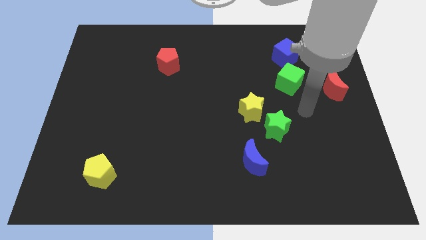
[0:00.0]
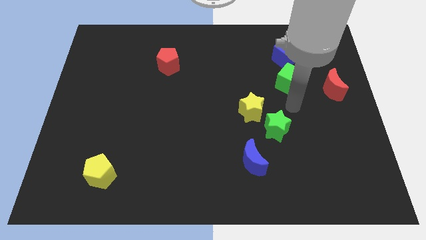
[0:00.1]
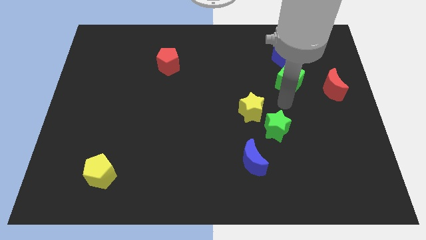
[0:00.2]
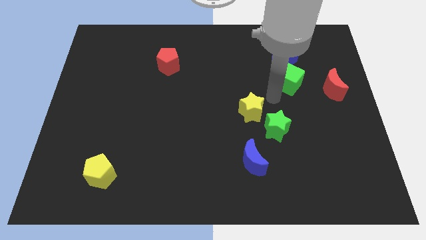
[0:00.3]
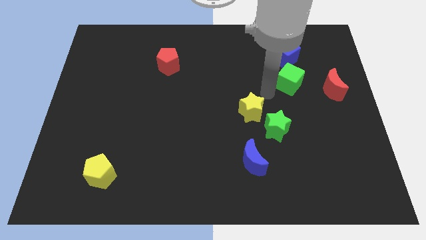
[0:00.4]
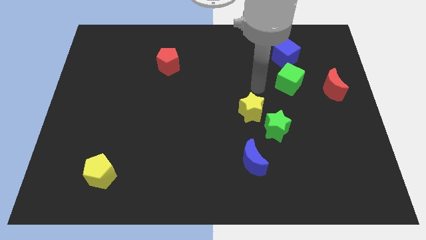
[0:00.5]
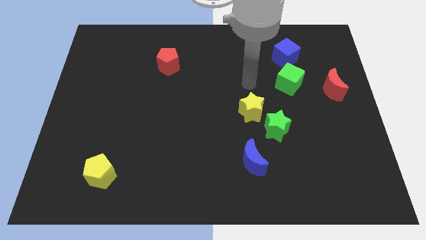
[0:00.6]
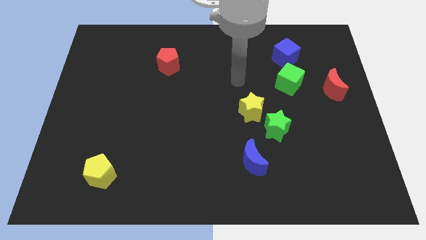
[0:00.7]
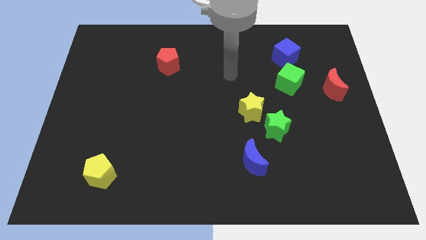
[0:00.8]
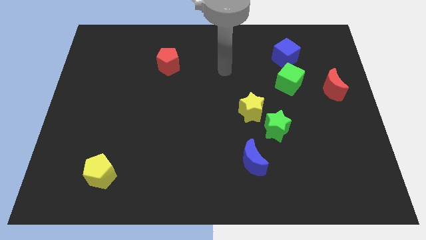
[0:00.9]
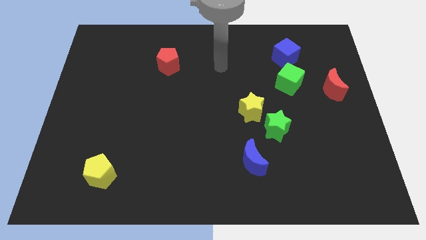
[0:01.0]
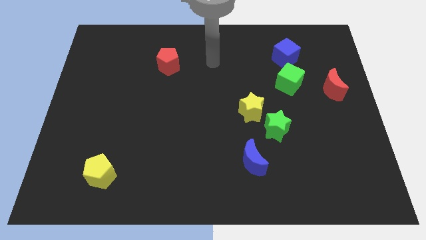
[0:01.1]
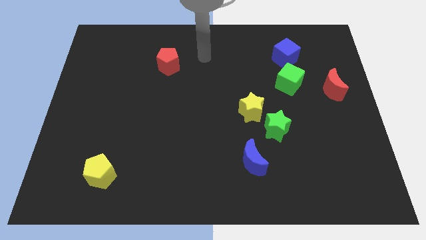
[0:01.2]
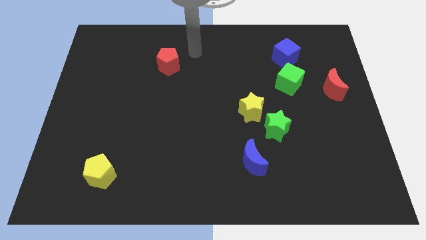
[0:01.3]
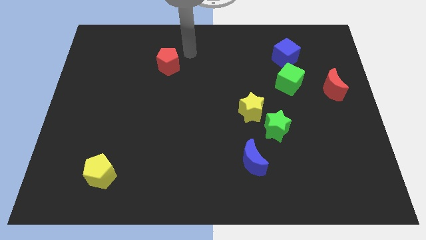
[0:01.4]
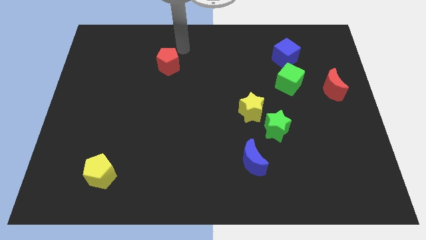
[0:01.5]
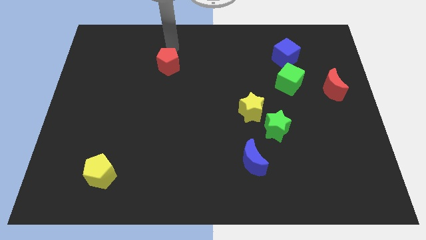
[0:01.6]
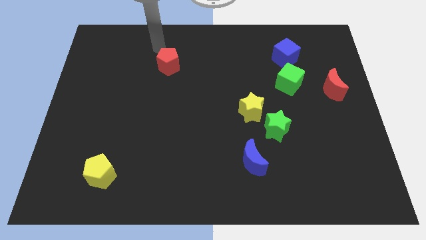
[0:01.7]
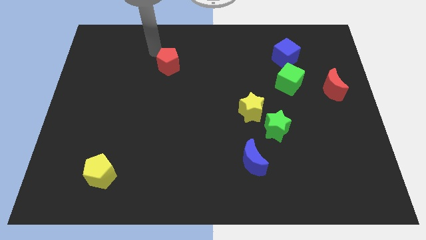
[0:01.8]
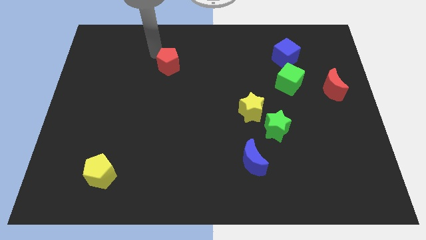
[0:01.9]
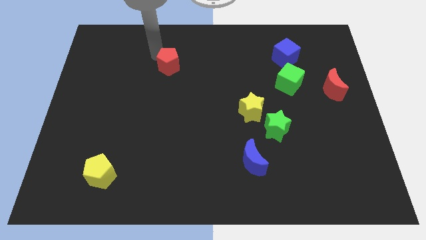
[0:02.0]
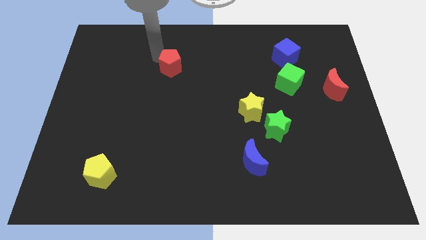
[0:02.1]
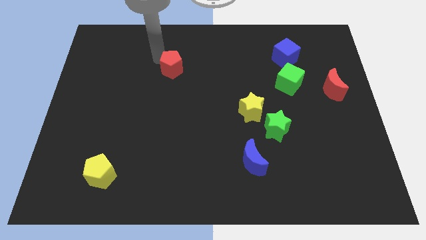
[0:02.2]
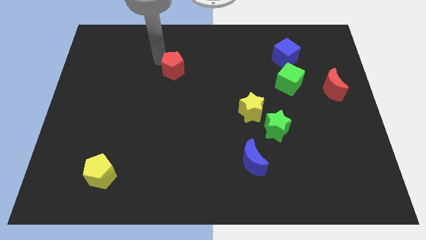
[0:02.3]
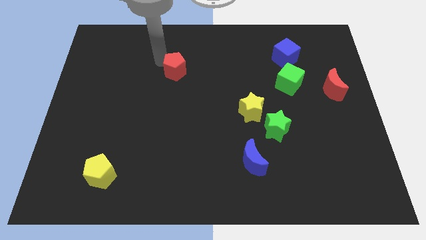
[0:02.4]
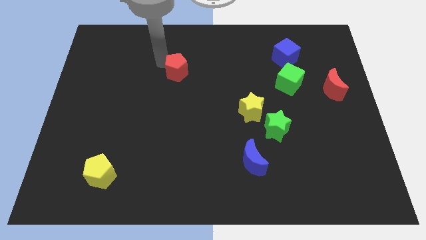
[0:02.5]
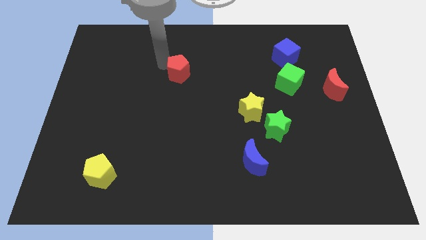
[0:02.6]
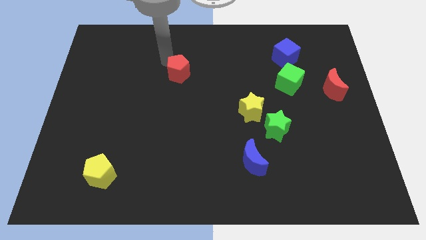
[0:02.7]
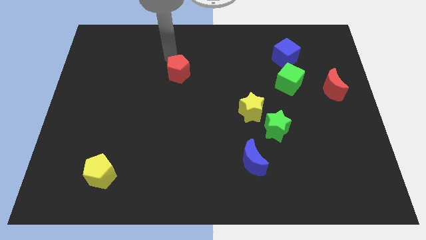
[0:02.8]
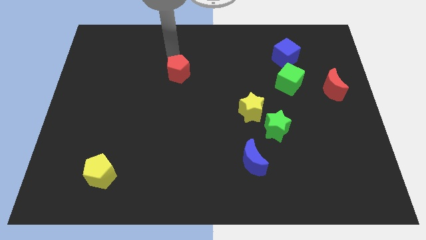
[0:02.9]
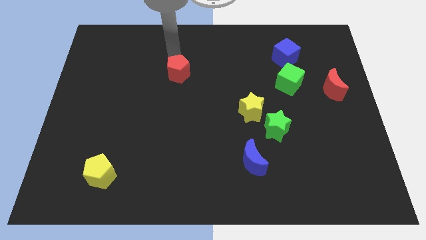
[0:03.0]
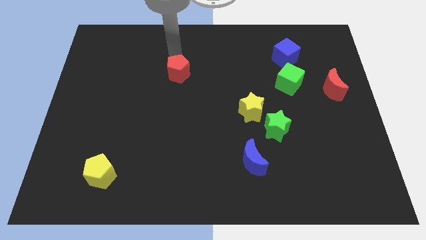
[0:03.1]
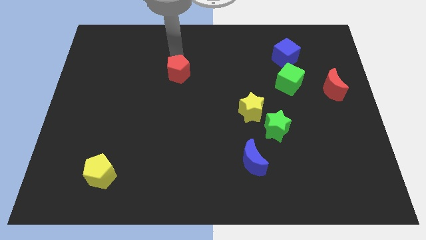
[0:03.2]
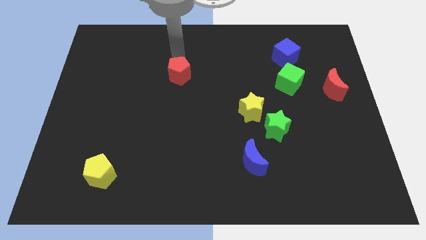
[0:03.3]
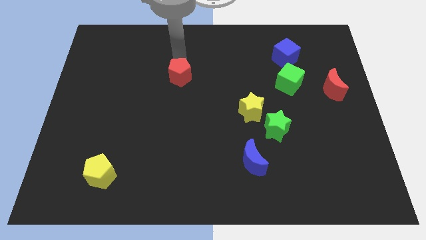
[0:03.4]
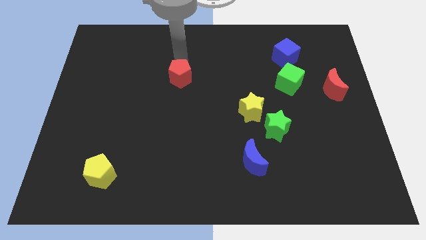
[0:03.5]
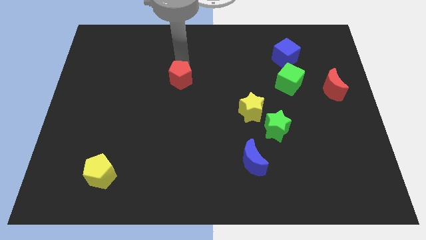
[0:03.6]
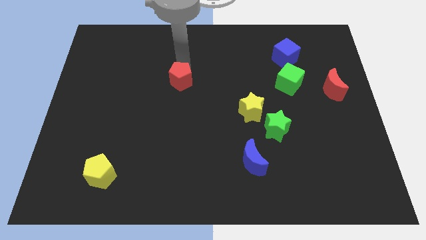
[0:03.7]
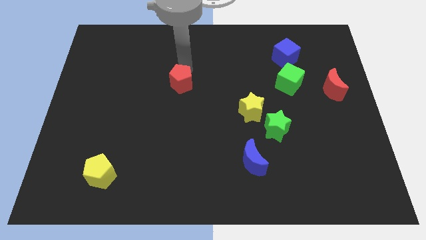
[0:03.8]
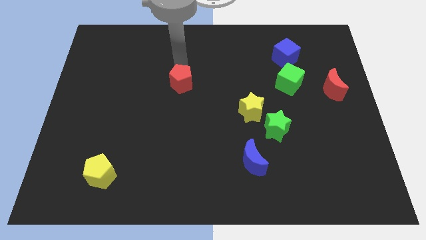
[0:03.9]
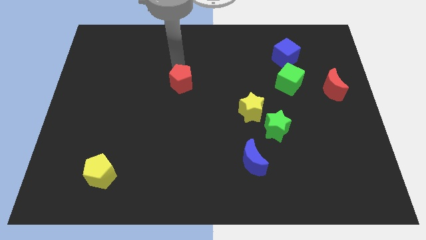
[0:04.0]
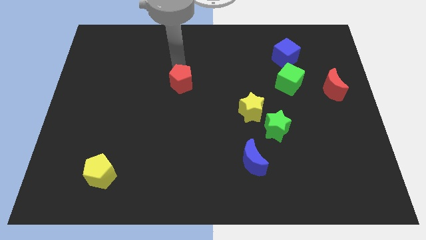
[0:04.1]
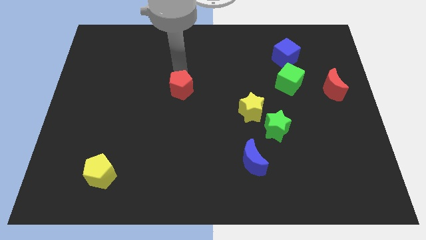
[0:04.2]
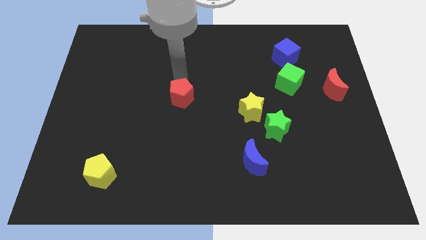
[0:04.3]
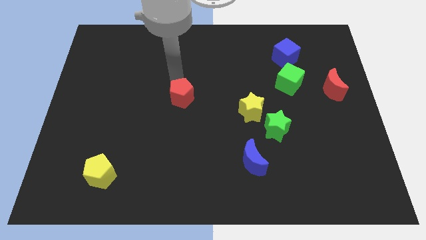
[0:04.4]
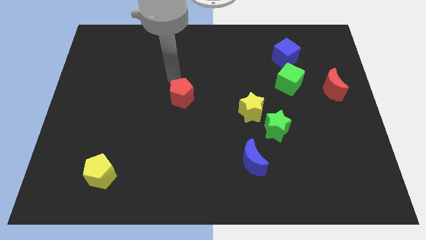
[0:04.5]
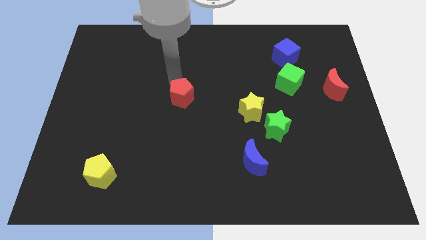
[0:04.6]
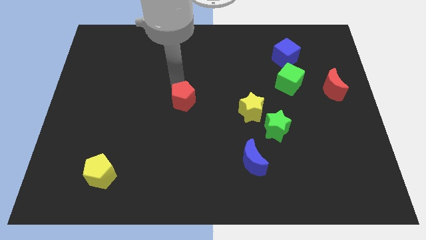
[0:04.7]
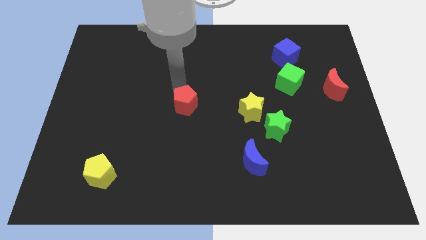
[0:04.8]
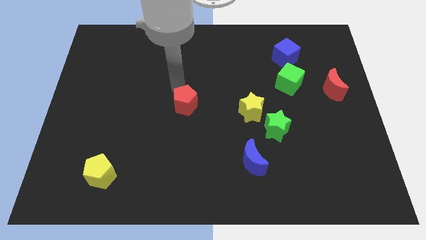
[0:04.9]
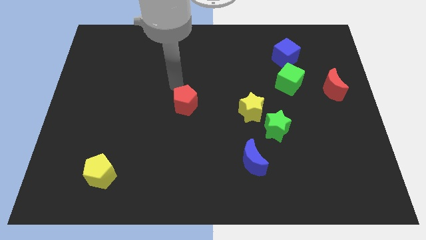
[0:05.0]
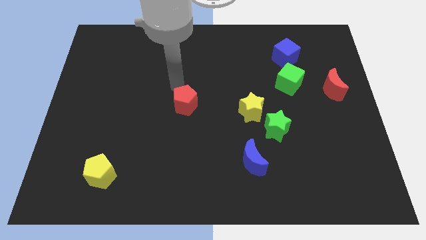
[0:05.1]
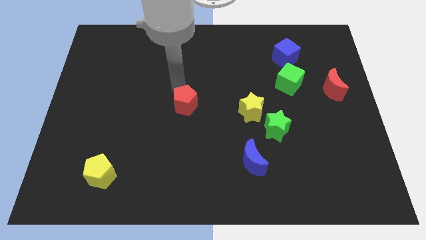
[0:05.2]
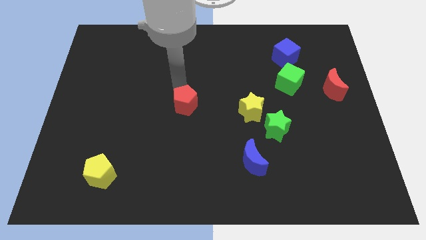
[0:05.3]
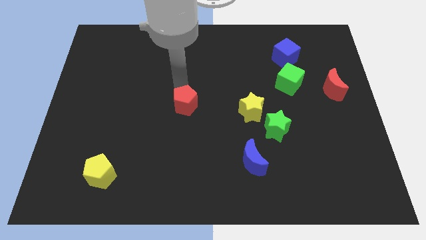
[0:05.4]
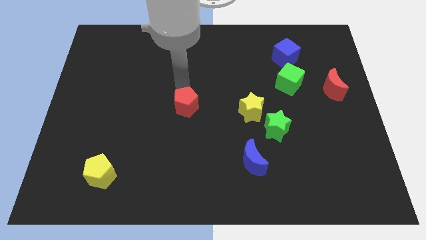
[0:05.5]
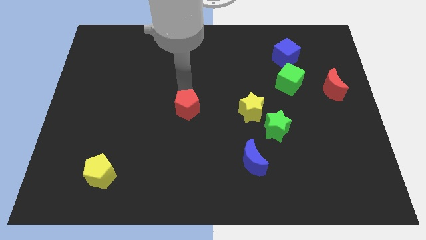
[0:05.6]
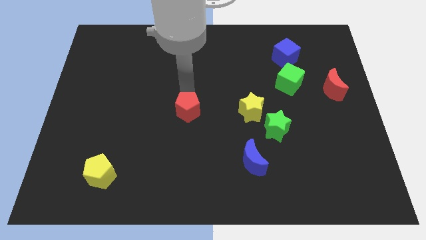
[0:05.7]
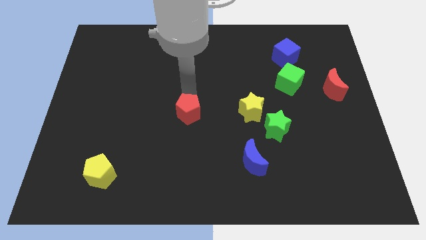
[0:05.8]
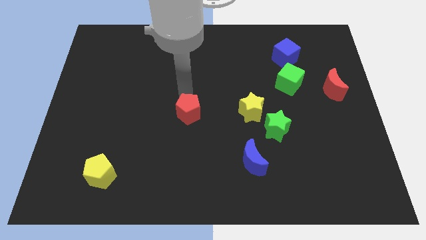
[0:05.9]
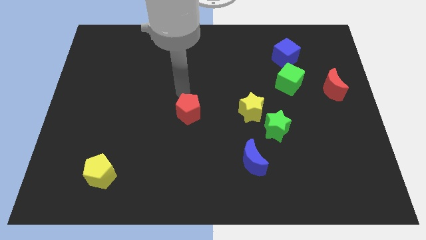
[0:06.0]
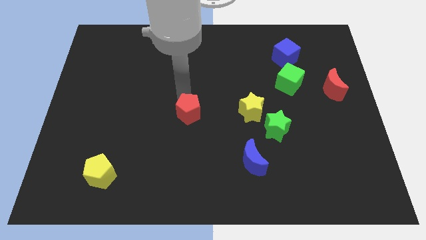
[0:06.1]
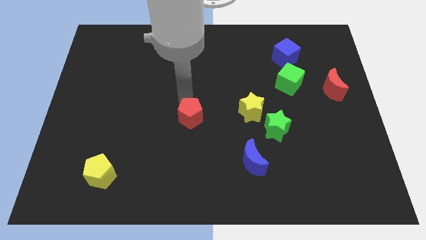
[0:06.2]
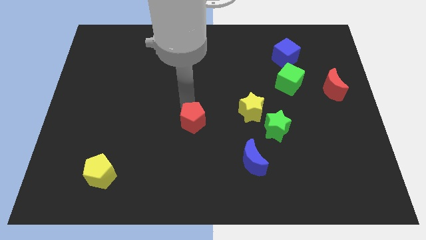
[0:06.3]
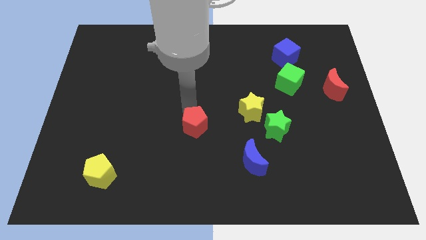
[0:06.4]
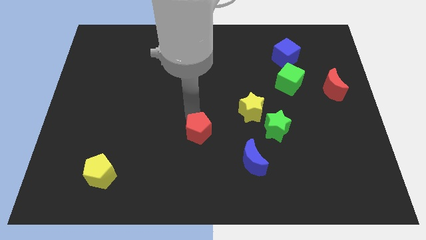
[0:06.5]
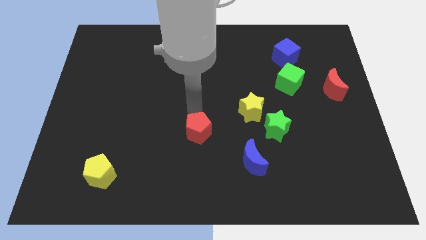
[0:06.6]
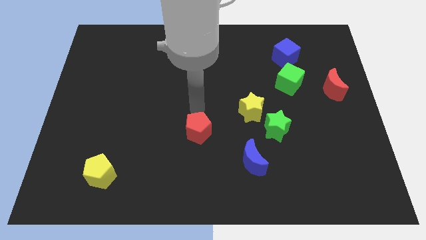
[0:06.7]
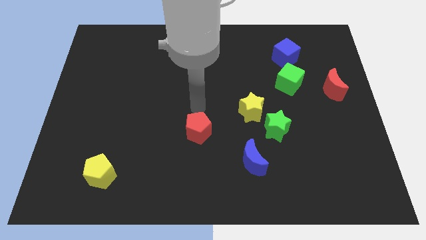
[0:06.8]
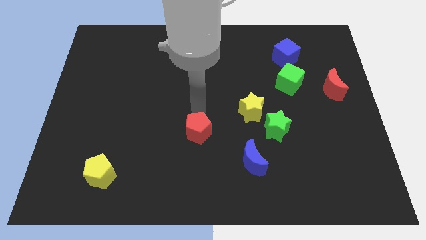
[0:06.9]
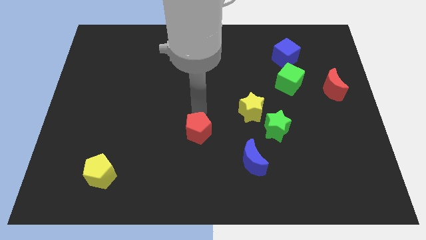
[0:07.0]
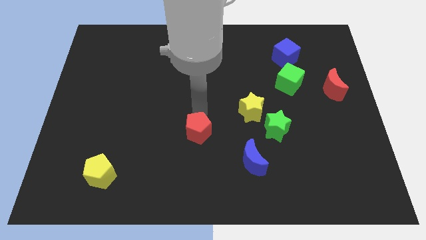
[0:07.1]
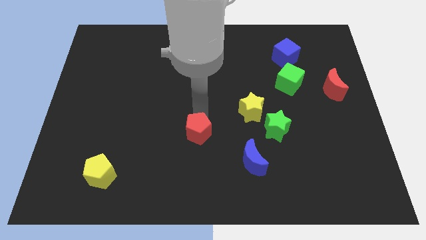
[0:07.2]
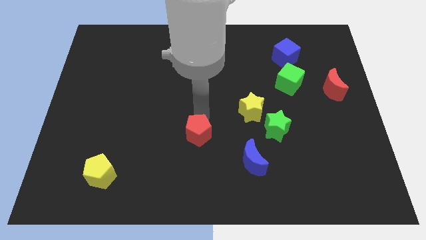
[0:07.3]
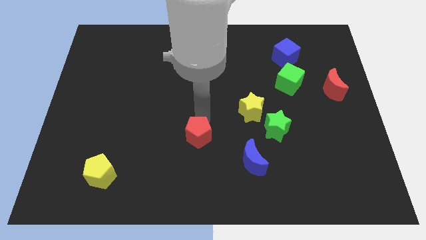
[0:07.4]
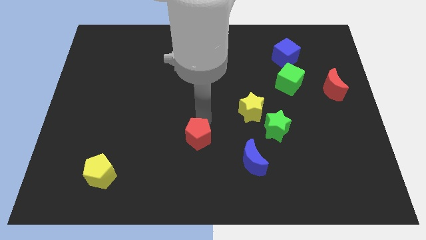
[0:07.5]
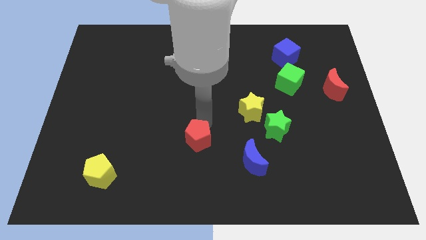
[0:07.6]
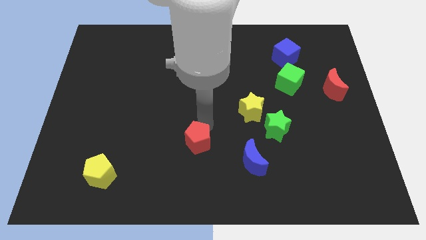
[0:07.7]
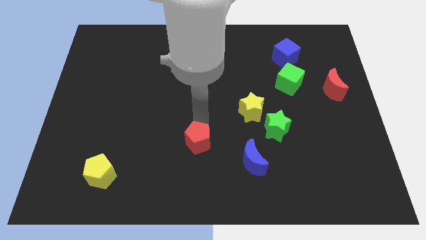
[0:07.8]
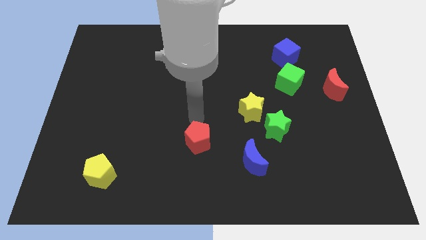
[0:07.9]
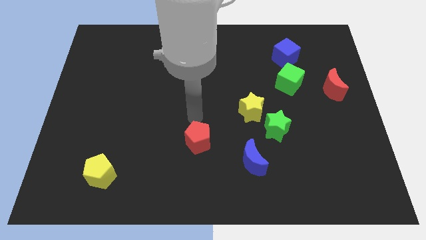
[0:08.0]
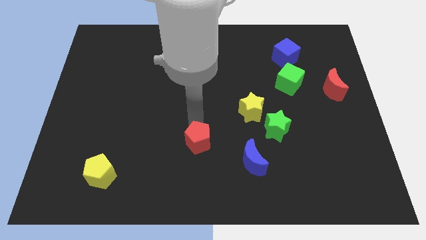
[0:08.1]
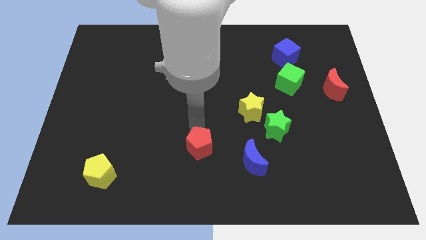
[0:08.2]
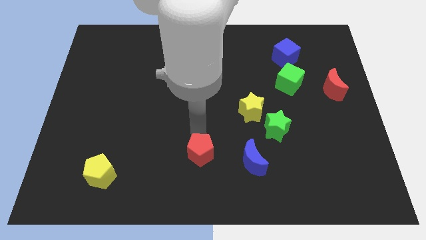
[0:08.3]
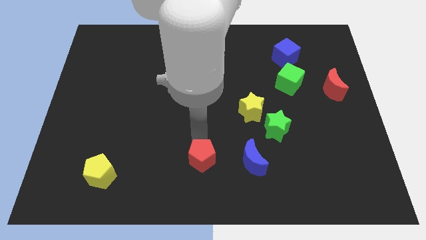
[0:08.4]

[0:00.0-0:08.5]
push the red pentagon to the bottom side
